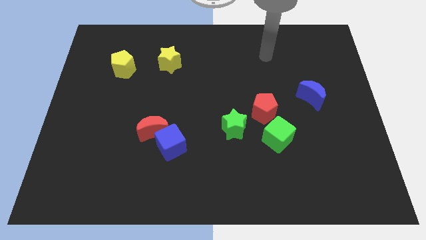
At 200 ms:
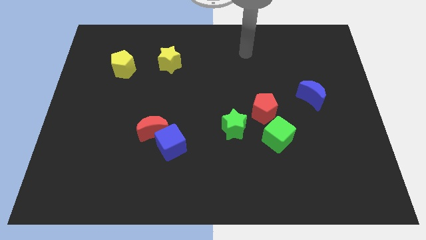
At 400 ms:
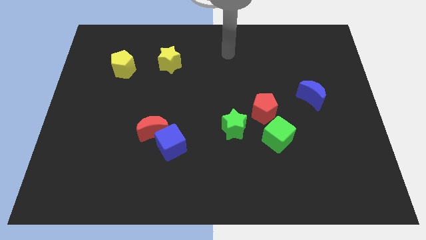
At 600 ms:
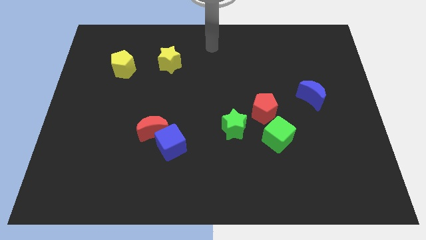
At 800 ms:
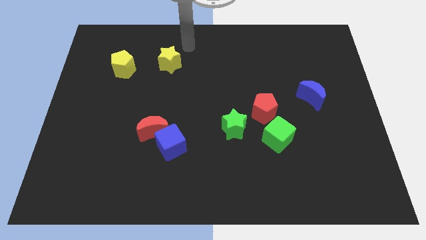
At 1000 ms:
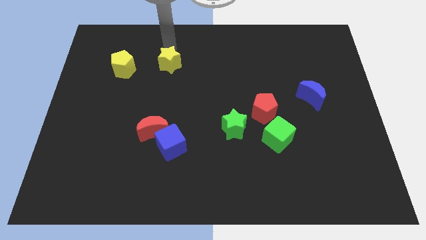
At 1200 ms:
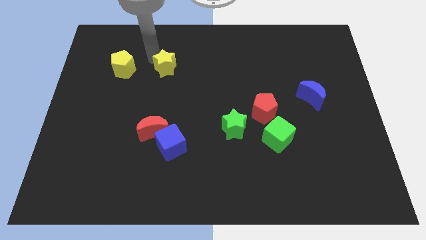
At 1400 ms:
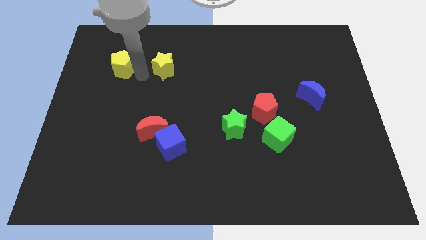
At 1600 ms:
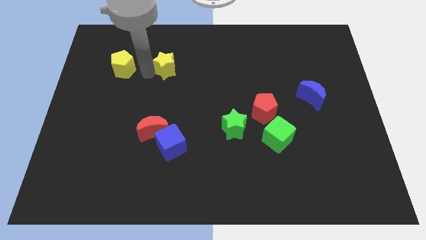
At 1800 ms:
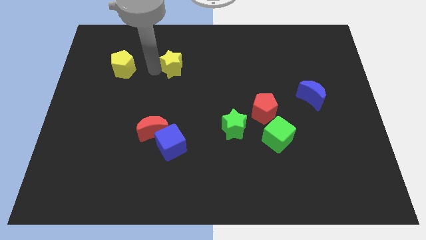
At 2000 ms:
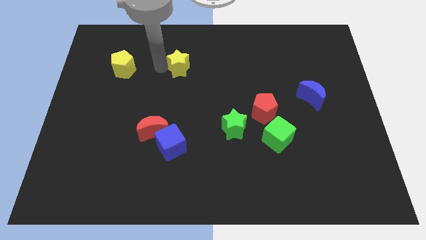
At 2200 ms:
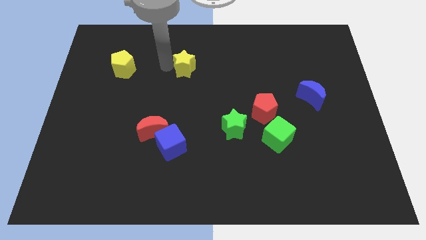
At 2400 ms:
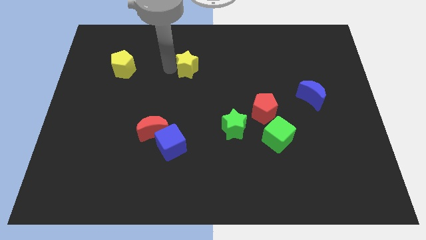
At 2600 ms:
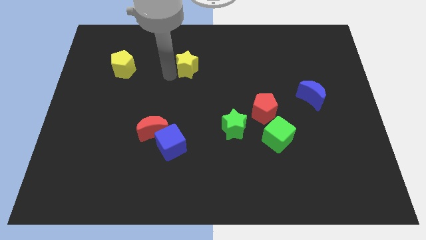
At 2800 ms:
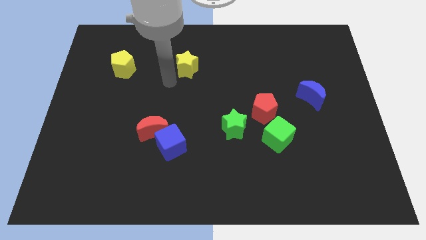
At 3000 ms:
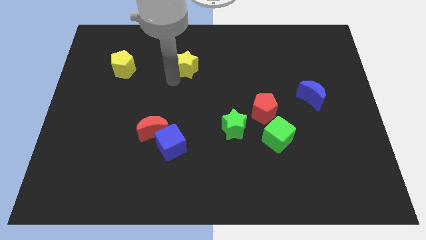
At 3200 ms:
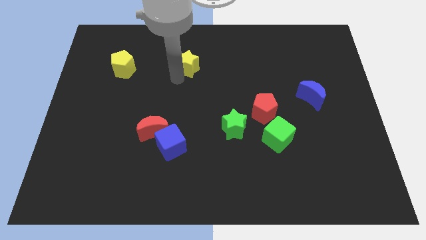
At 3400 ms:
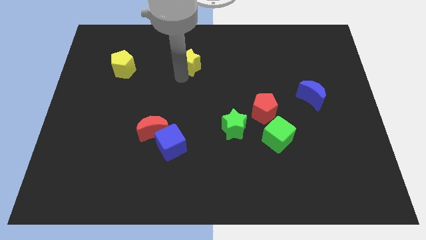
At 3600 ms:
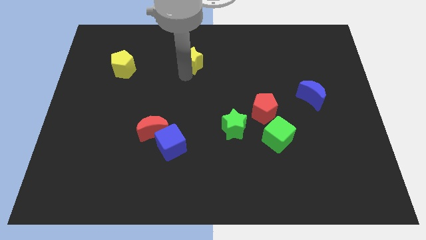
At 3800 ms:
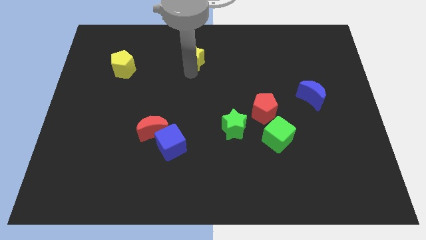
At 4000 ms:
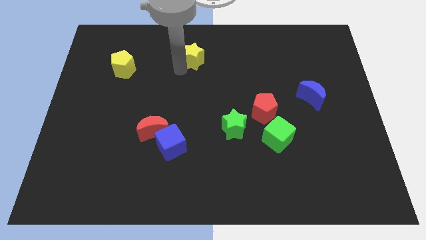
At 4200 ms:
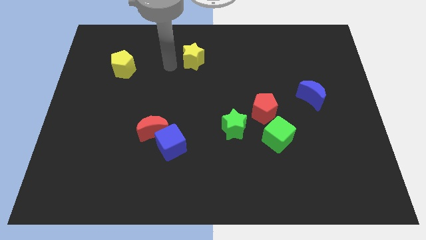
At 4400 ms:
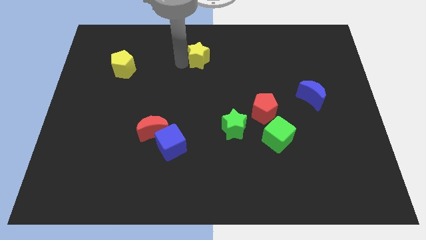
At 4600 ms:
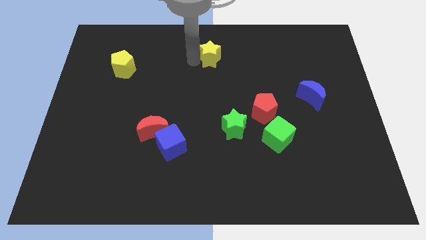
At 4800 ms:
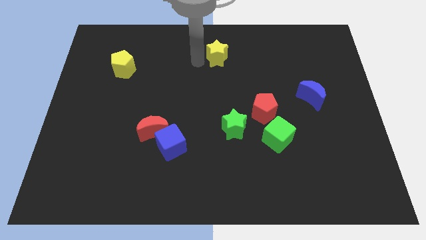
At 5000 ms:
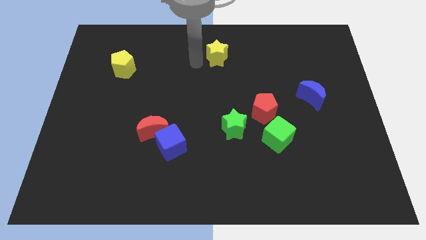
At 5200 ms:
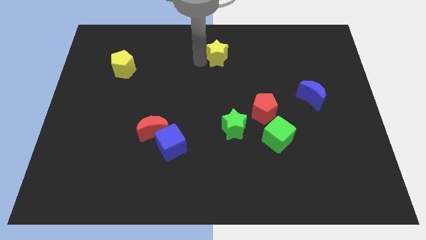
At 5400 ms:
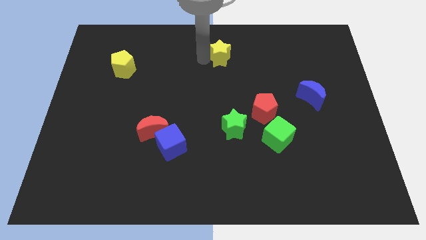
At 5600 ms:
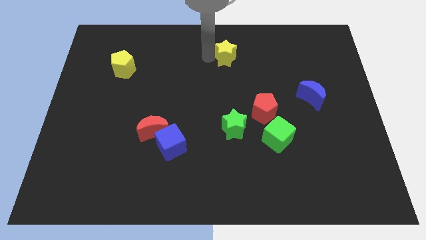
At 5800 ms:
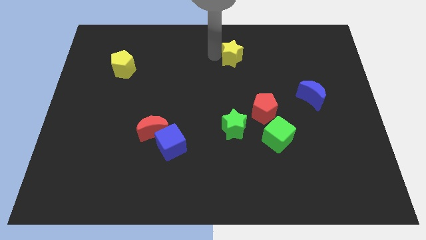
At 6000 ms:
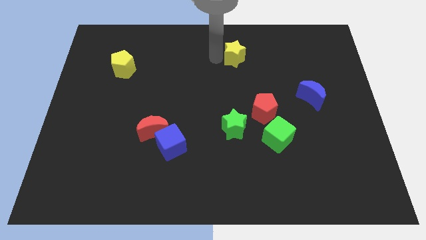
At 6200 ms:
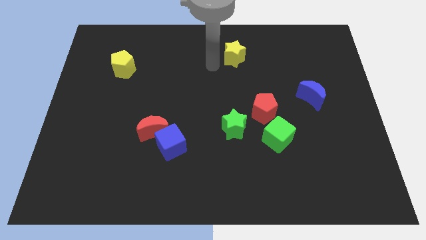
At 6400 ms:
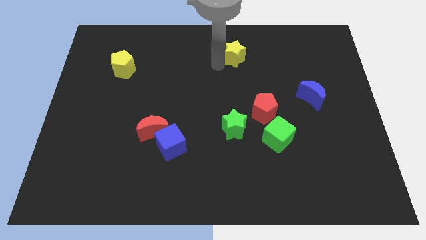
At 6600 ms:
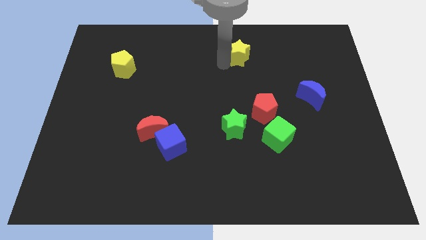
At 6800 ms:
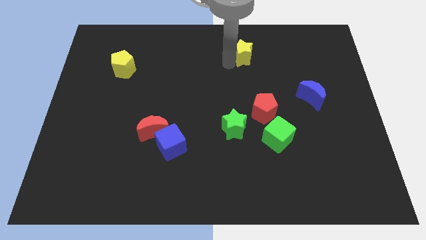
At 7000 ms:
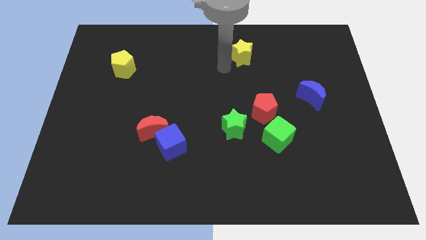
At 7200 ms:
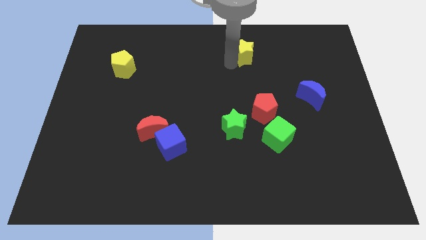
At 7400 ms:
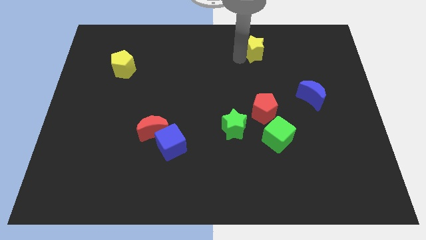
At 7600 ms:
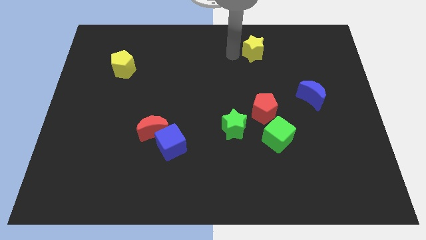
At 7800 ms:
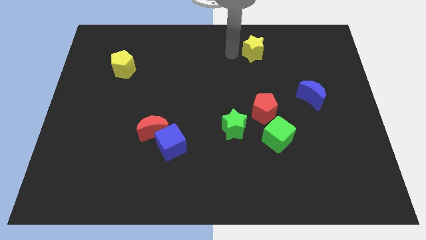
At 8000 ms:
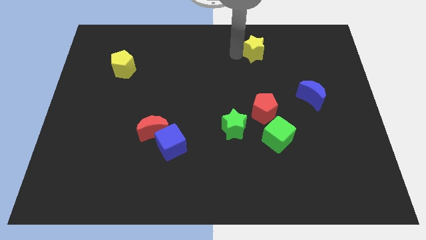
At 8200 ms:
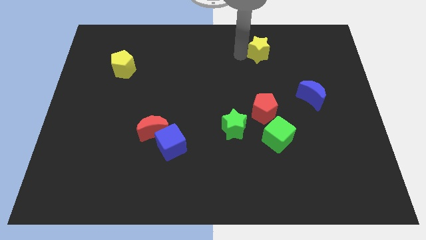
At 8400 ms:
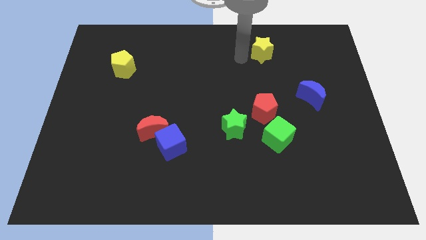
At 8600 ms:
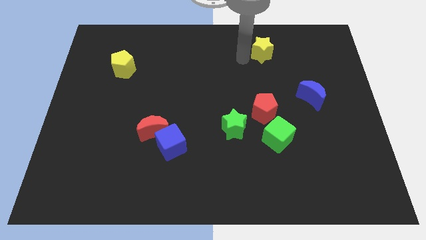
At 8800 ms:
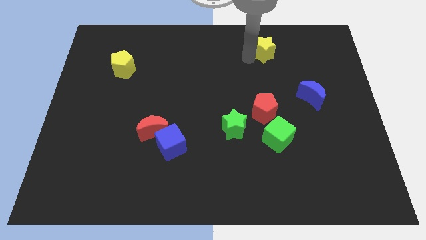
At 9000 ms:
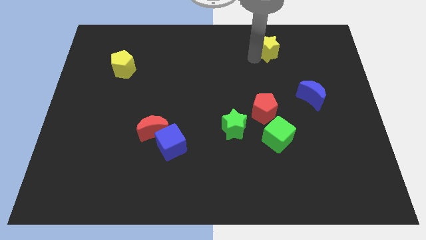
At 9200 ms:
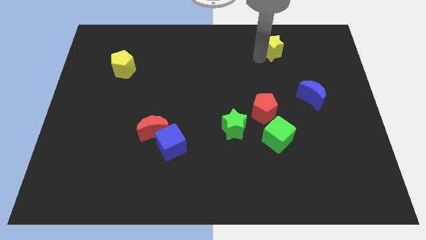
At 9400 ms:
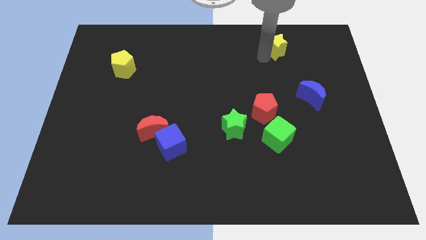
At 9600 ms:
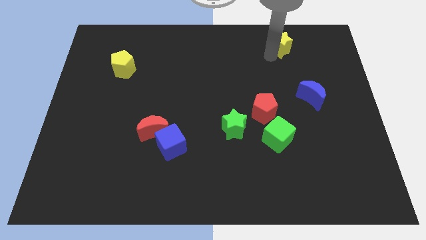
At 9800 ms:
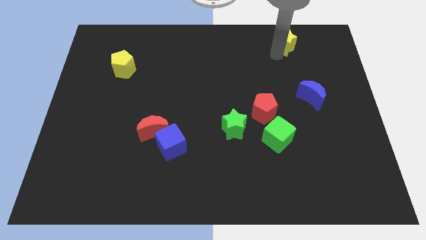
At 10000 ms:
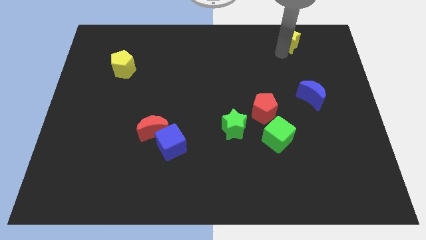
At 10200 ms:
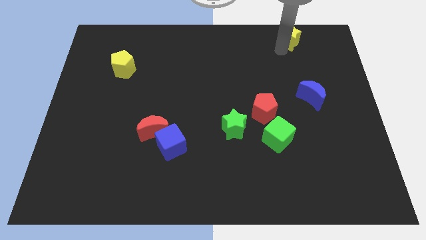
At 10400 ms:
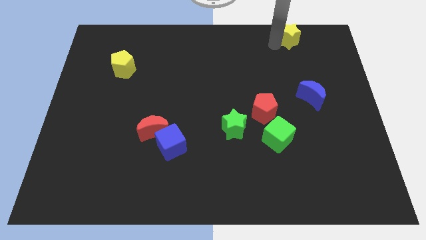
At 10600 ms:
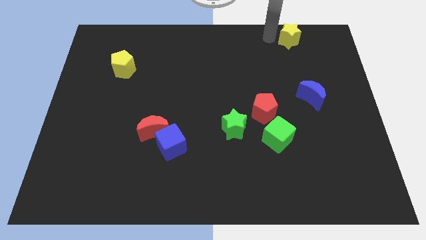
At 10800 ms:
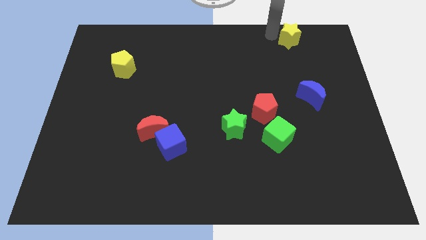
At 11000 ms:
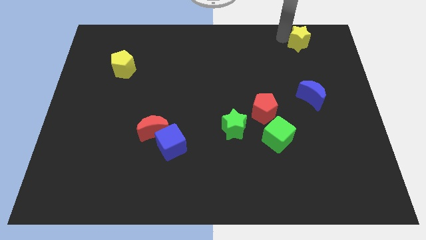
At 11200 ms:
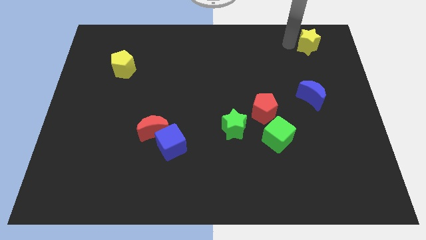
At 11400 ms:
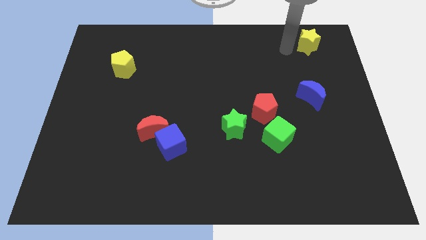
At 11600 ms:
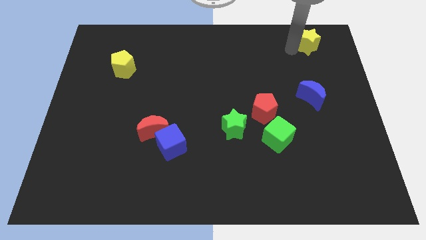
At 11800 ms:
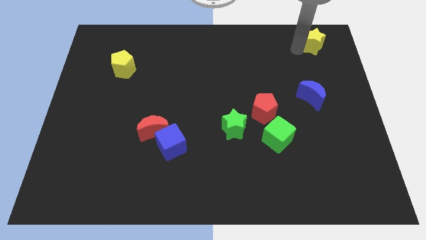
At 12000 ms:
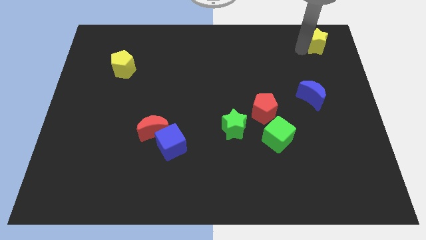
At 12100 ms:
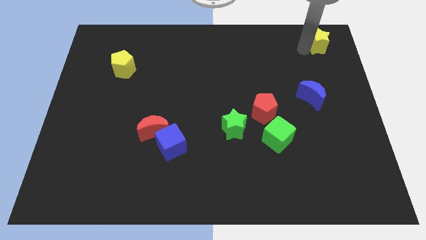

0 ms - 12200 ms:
slide the yellow star to the top right

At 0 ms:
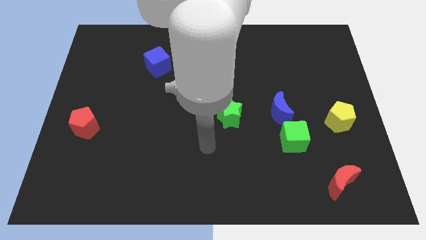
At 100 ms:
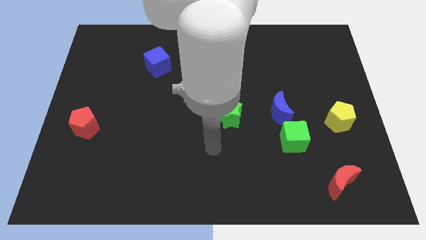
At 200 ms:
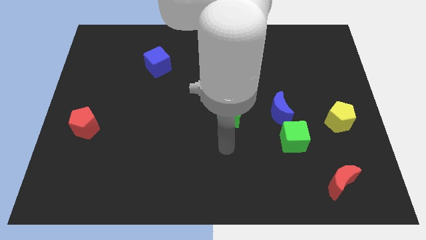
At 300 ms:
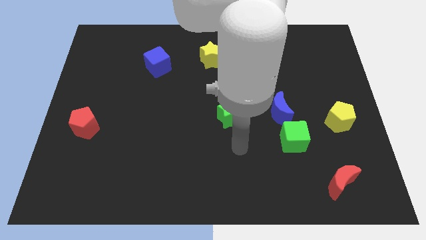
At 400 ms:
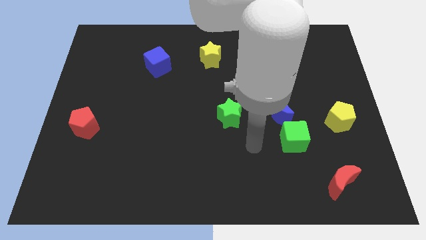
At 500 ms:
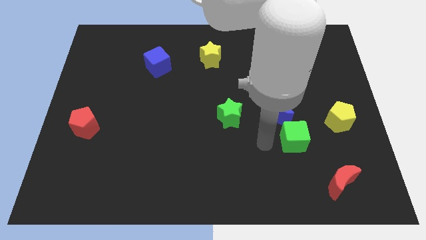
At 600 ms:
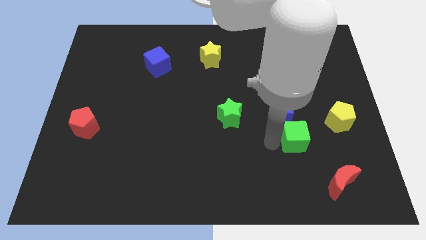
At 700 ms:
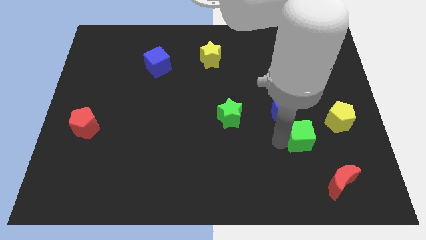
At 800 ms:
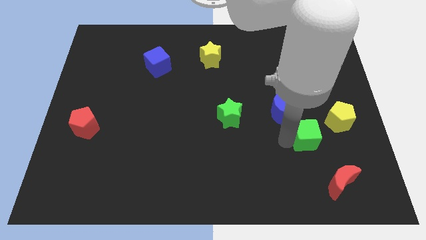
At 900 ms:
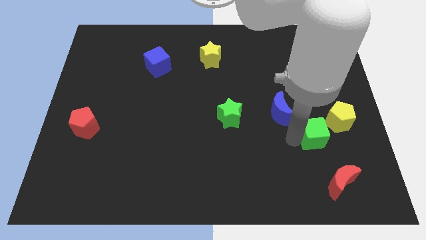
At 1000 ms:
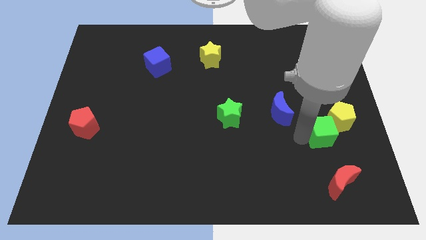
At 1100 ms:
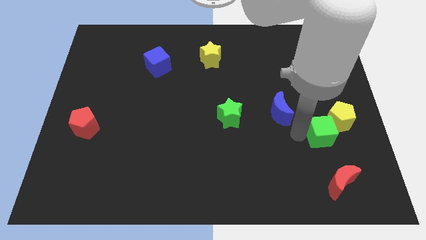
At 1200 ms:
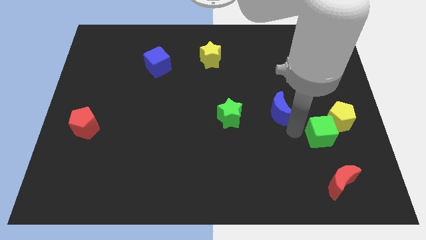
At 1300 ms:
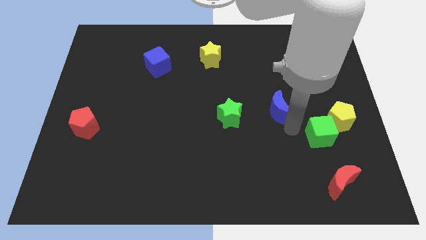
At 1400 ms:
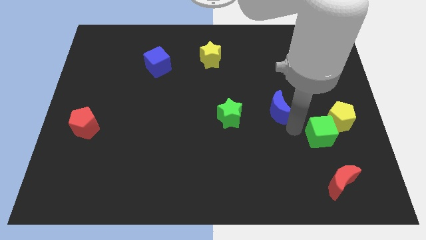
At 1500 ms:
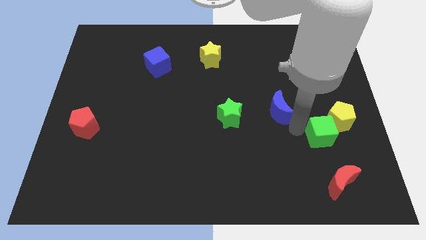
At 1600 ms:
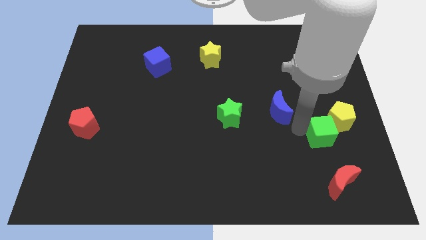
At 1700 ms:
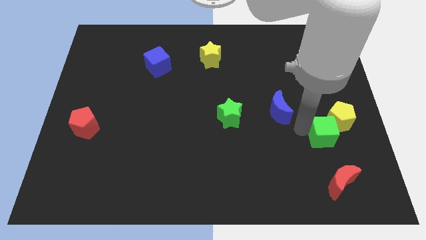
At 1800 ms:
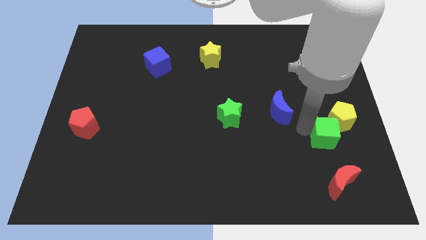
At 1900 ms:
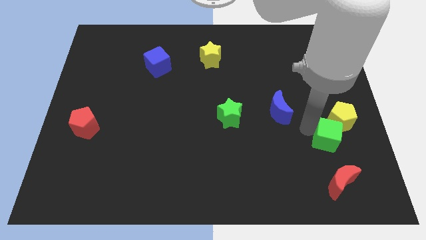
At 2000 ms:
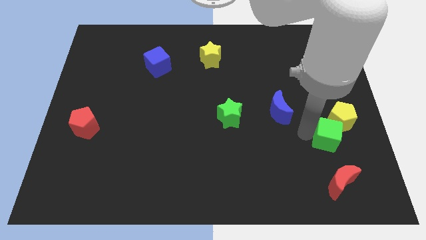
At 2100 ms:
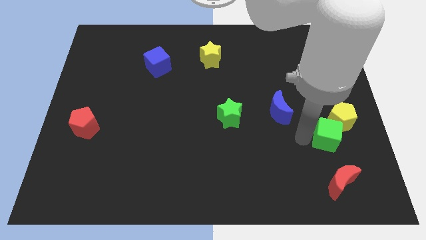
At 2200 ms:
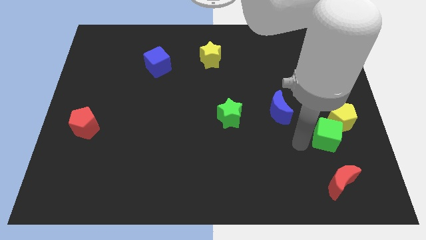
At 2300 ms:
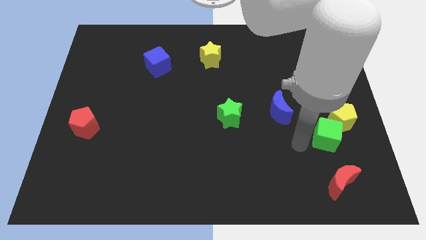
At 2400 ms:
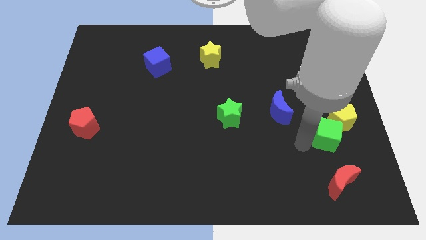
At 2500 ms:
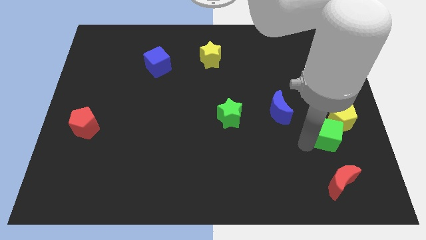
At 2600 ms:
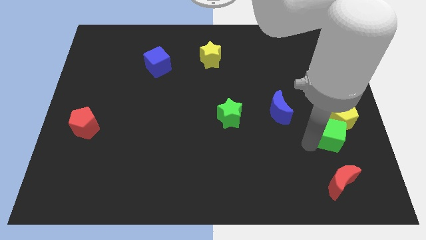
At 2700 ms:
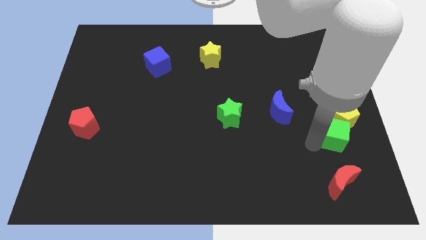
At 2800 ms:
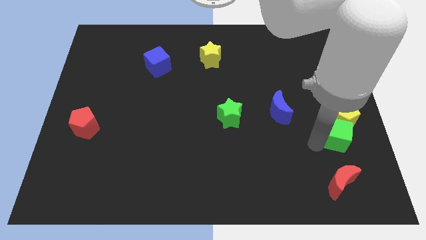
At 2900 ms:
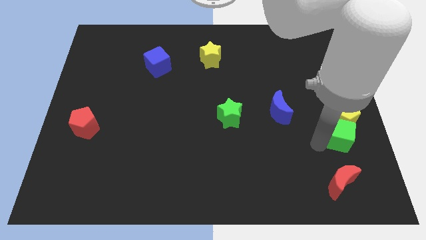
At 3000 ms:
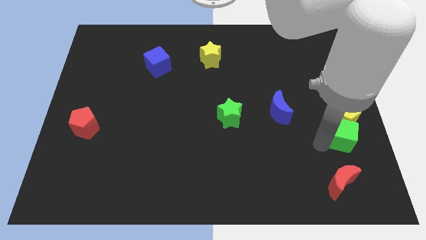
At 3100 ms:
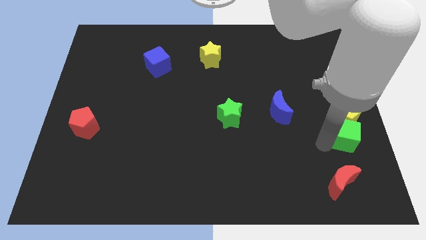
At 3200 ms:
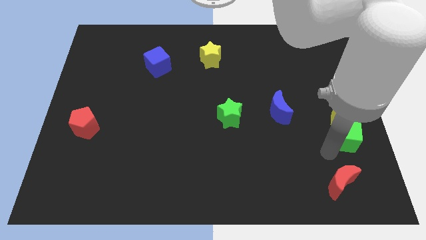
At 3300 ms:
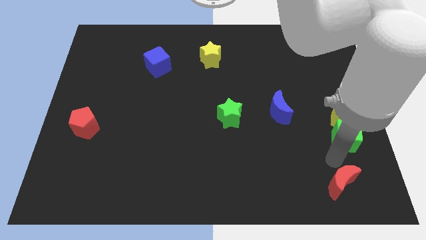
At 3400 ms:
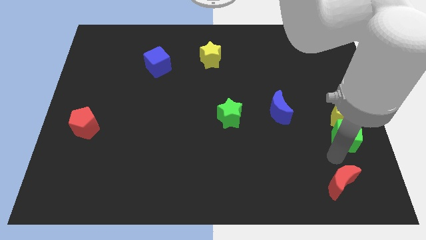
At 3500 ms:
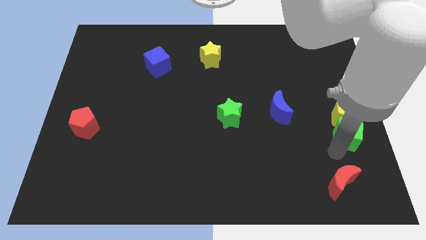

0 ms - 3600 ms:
slide the green cube to the right side of the board
